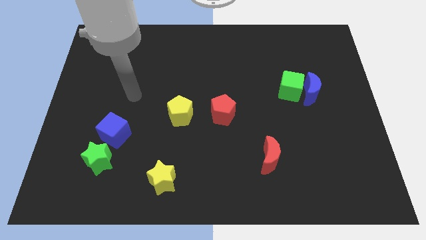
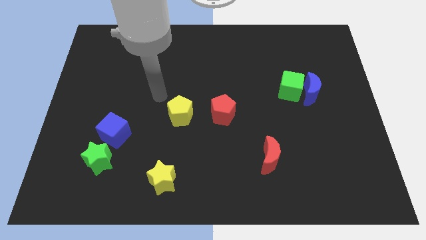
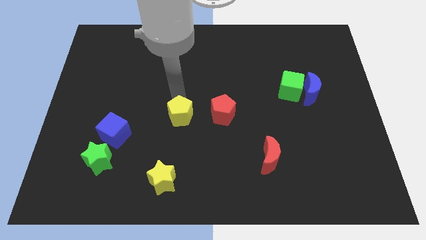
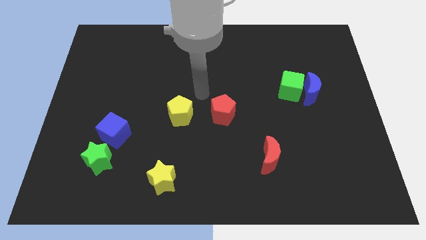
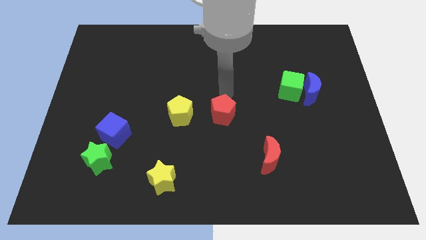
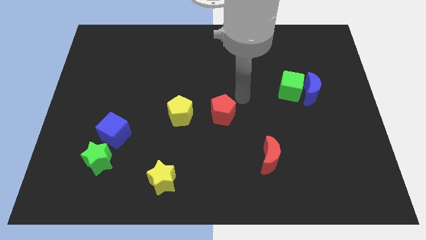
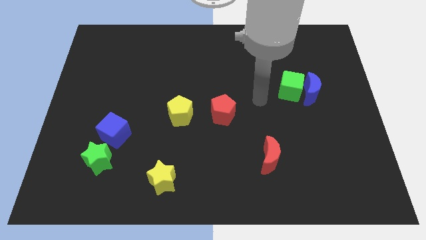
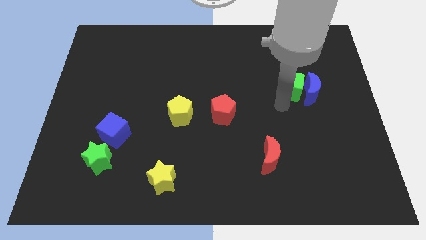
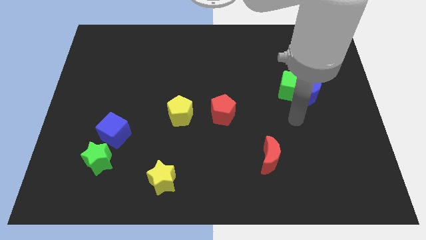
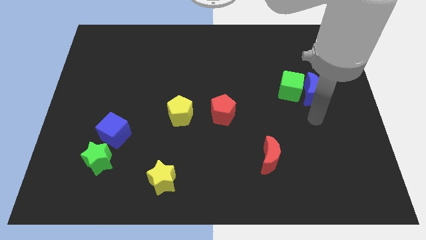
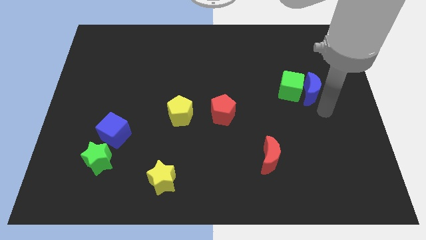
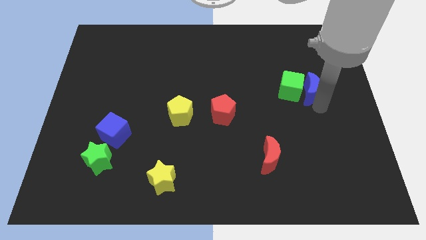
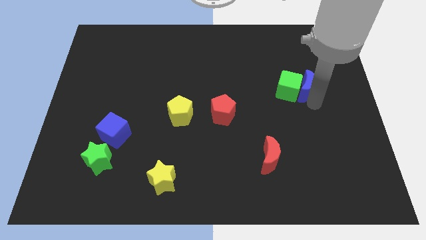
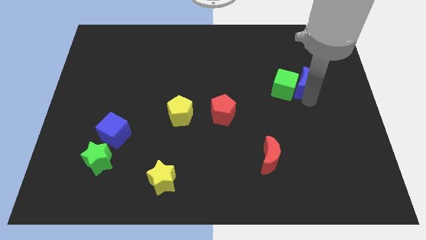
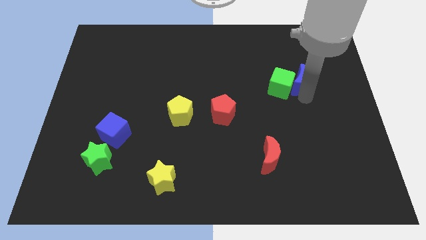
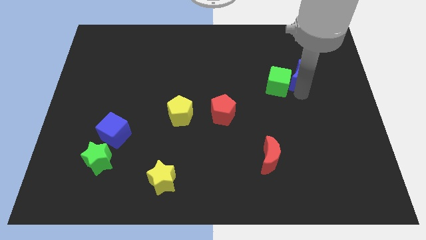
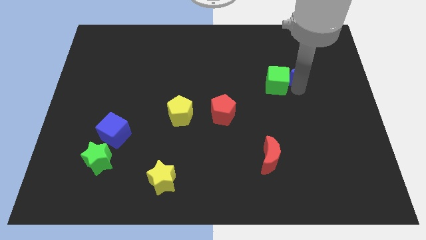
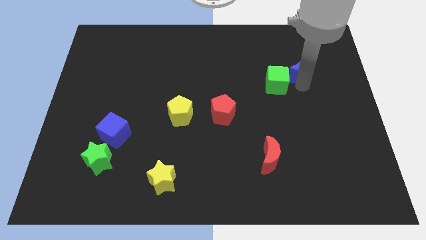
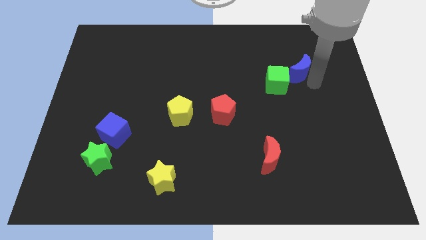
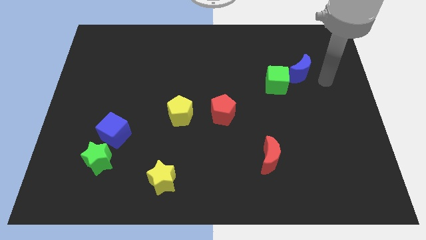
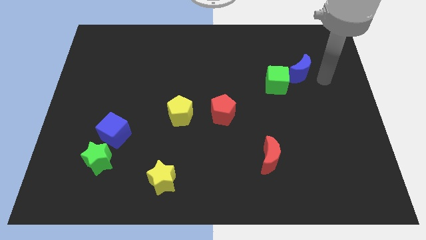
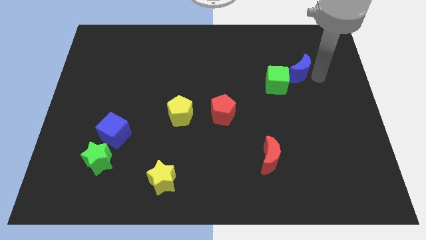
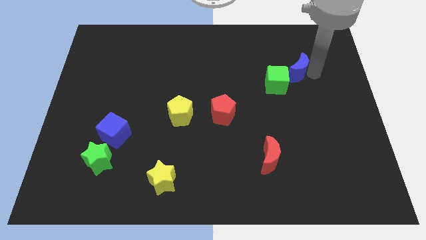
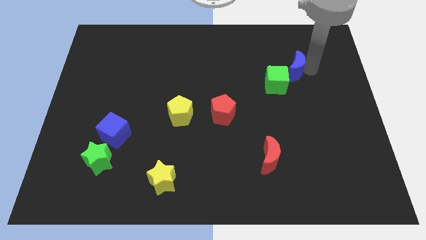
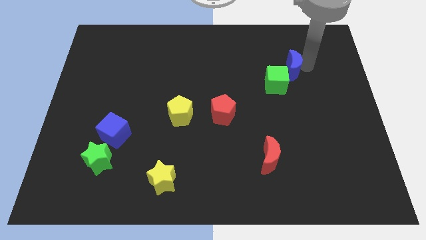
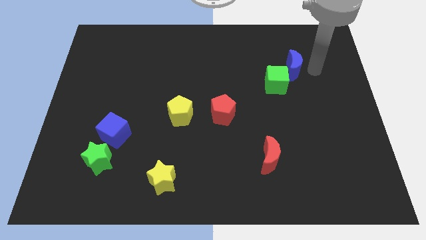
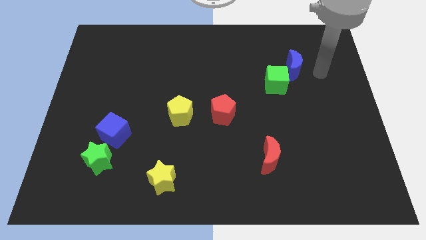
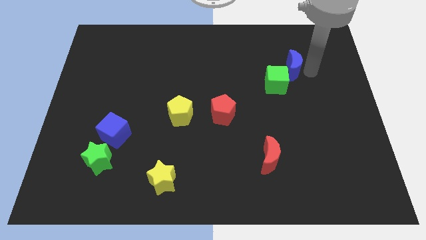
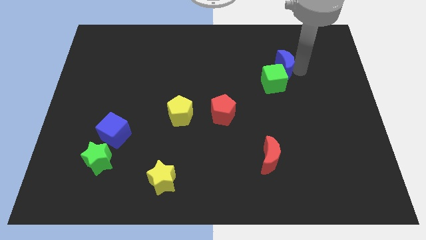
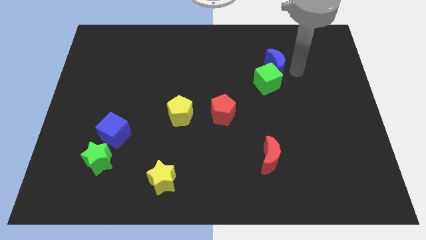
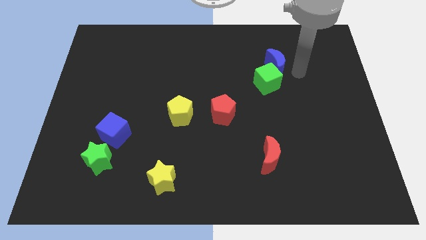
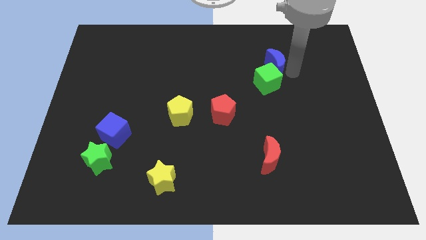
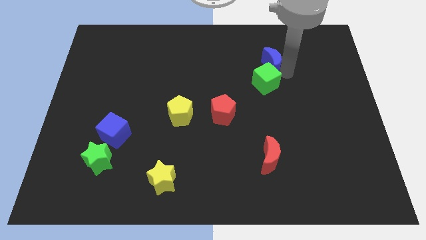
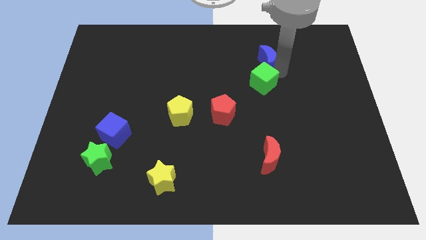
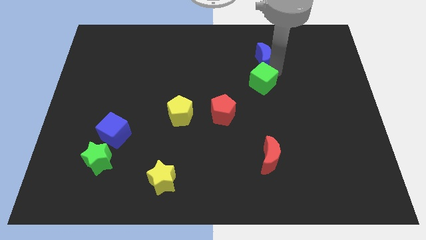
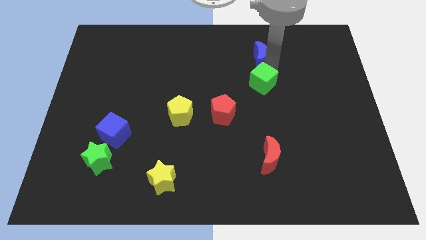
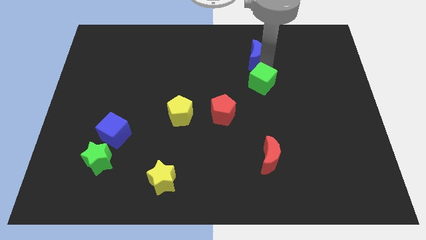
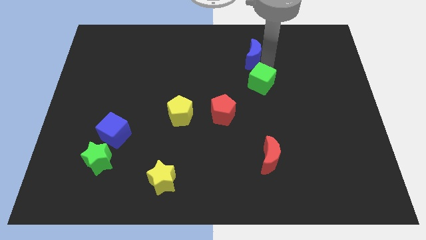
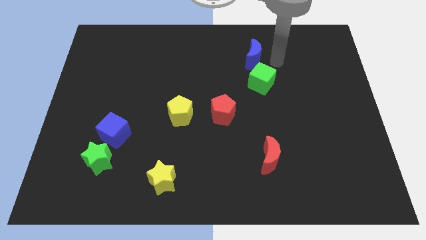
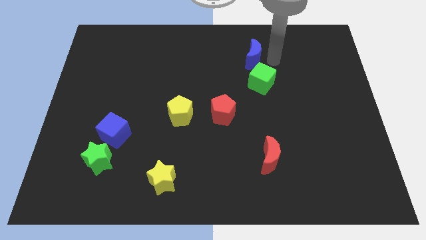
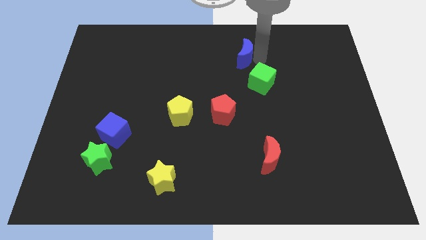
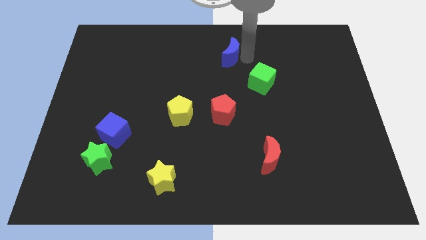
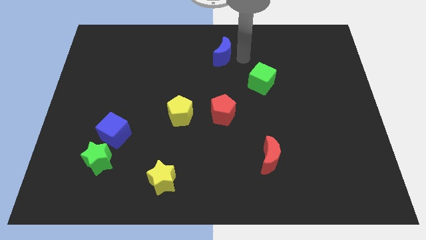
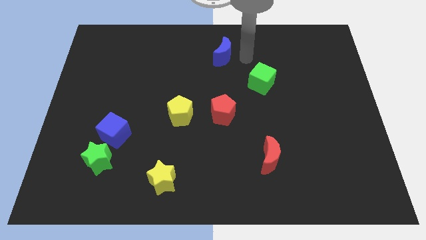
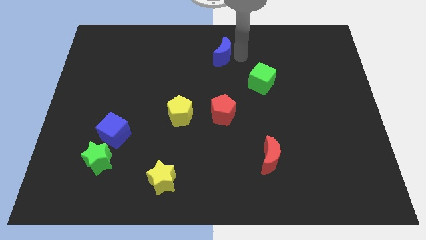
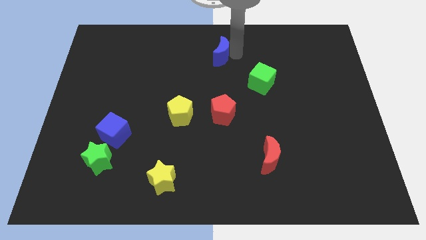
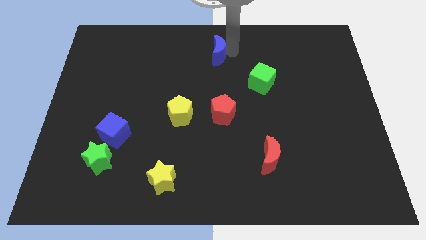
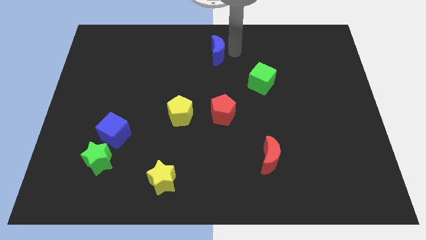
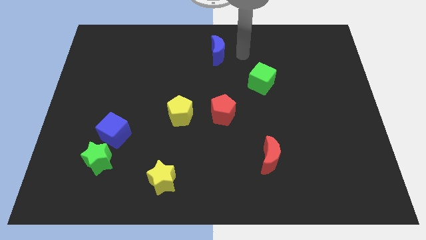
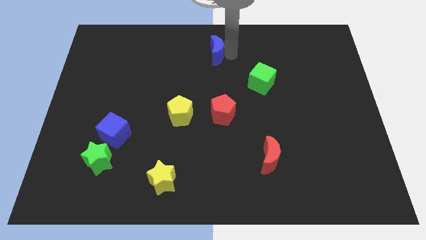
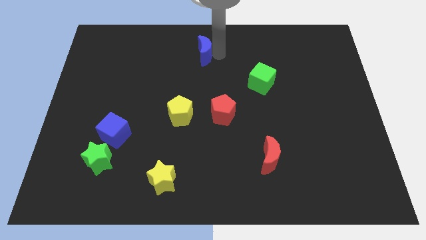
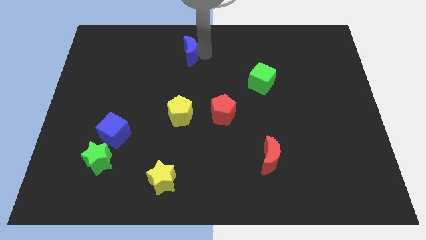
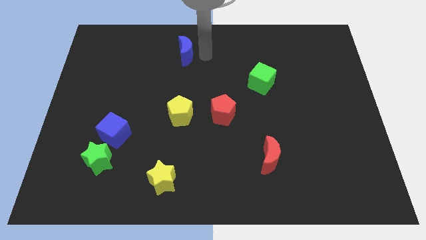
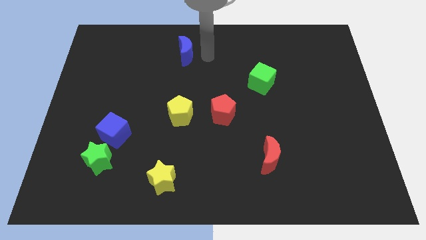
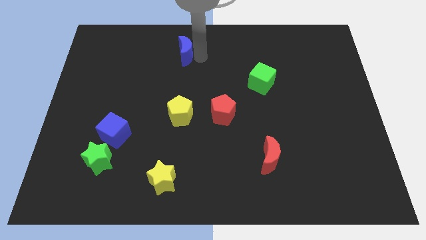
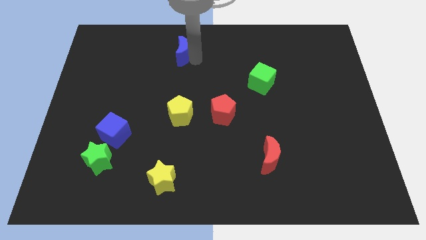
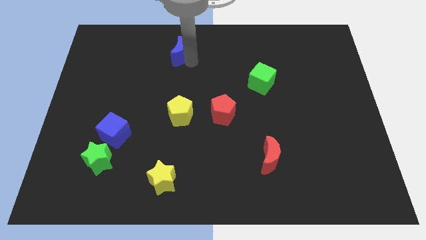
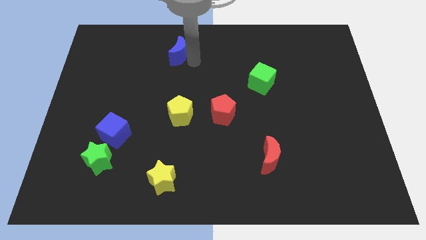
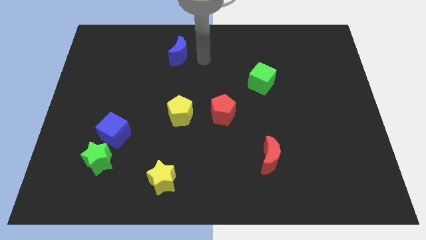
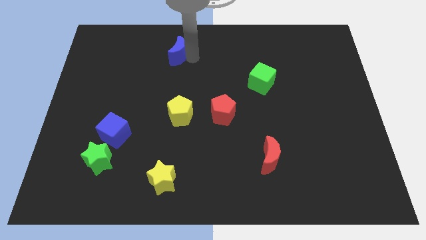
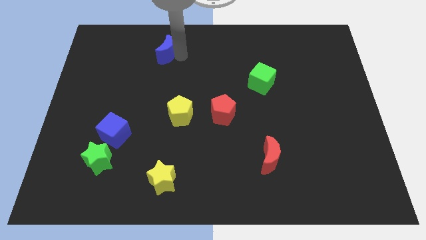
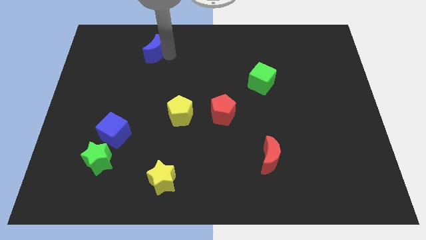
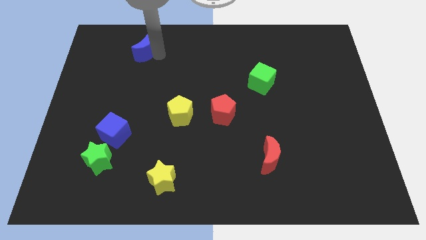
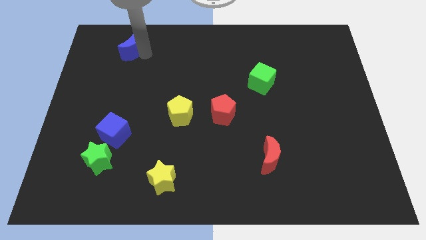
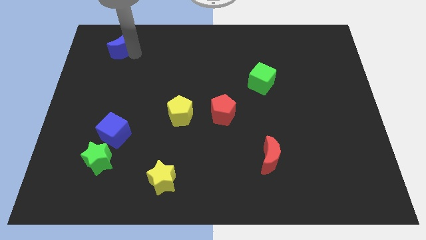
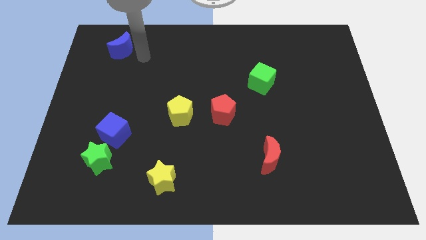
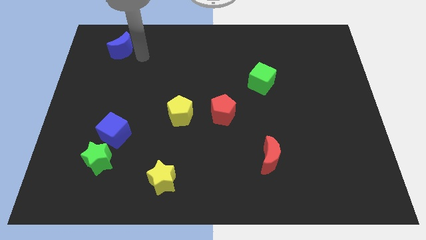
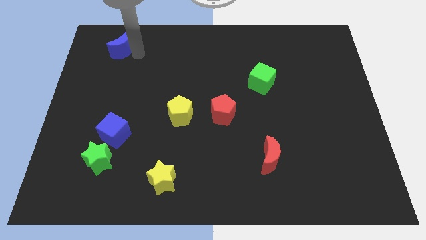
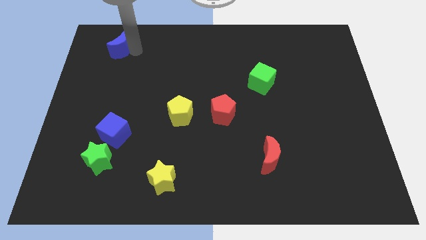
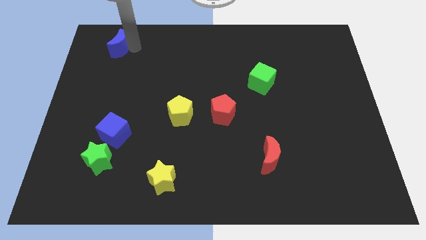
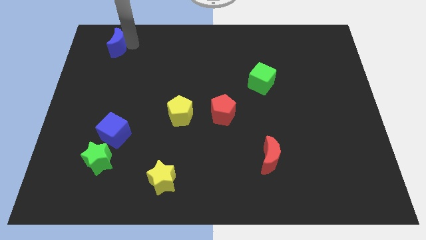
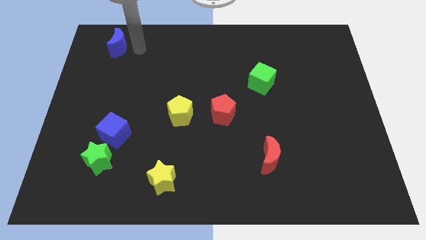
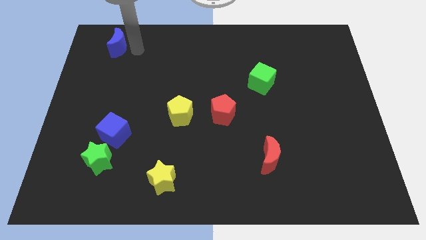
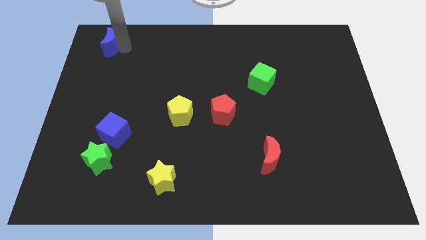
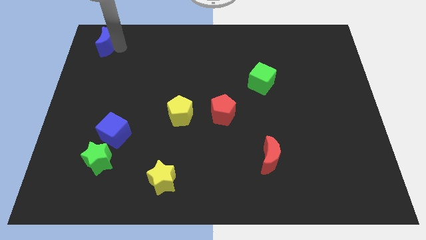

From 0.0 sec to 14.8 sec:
put the blue moon to the upper left corner
